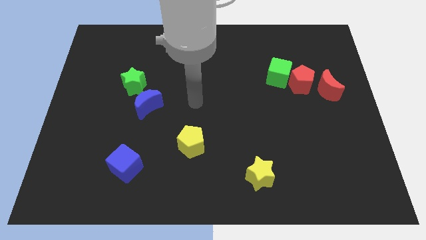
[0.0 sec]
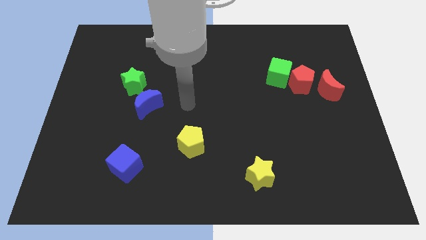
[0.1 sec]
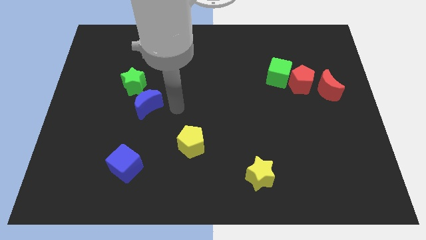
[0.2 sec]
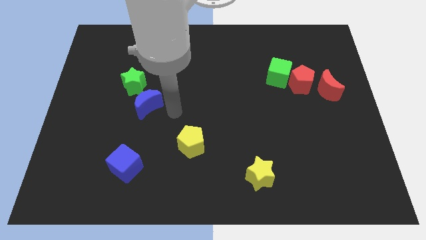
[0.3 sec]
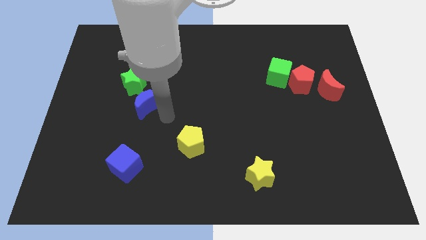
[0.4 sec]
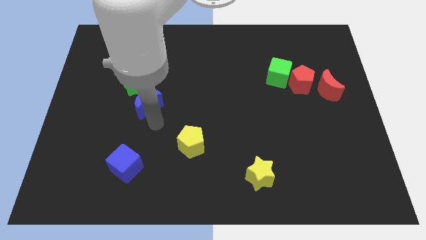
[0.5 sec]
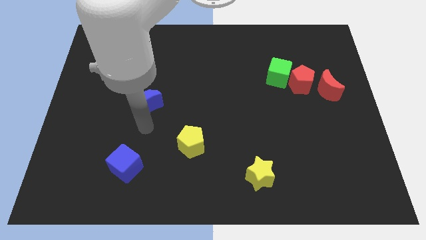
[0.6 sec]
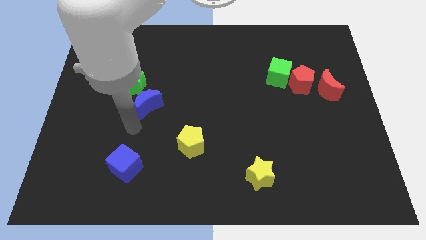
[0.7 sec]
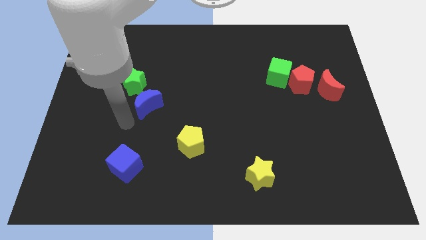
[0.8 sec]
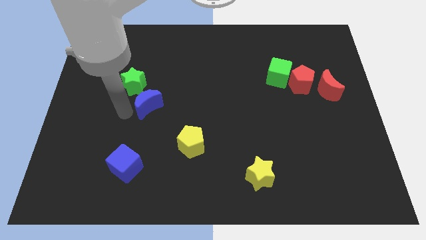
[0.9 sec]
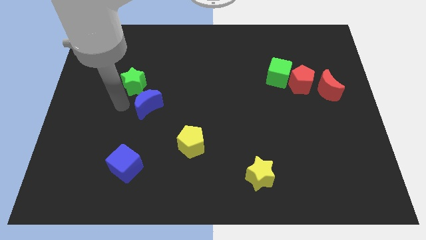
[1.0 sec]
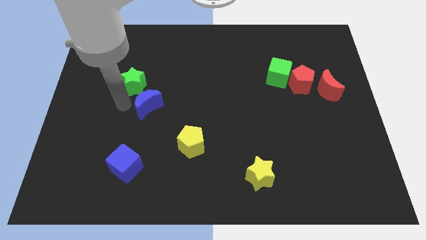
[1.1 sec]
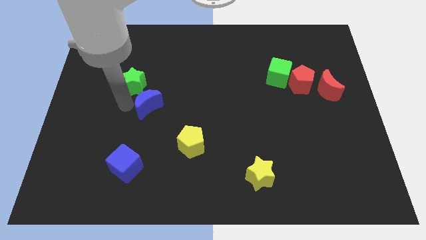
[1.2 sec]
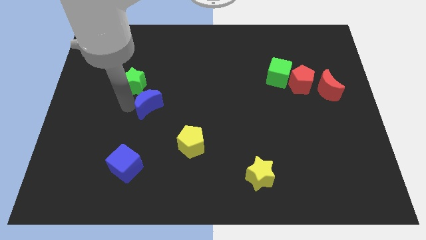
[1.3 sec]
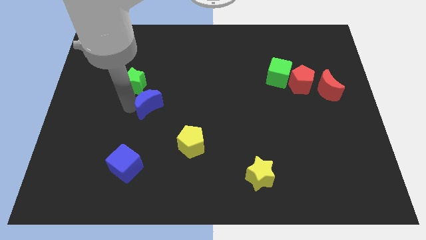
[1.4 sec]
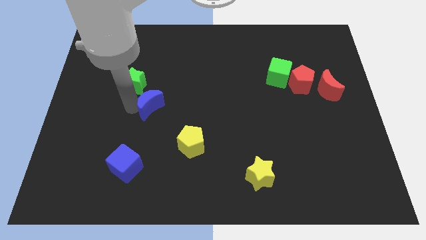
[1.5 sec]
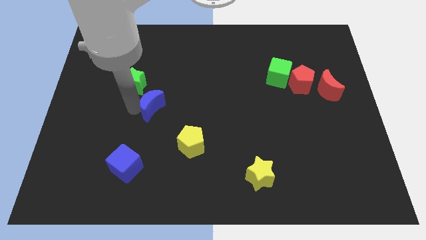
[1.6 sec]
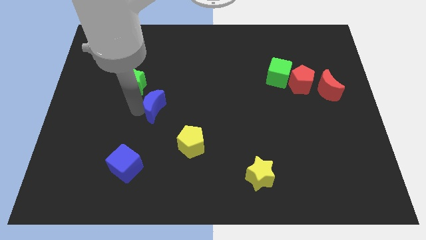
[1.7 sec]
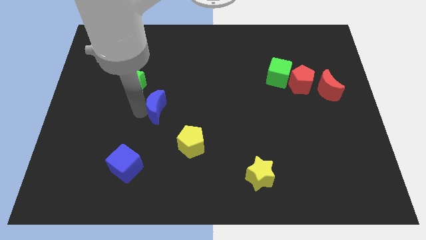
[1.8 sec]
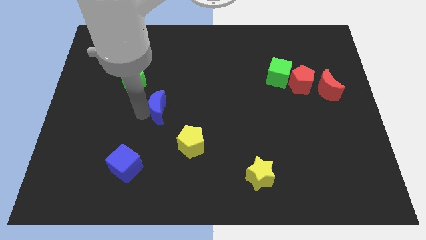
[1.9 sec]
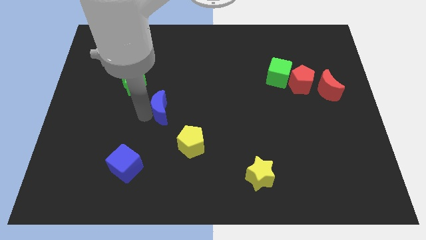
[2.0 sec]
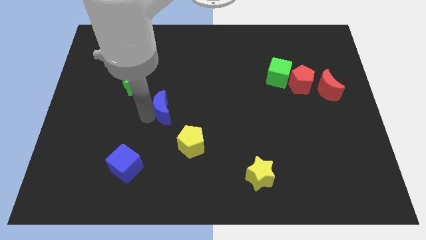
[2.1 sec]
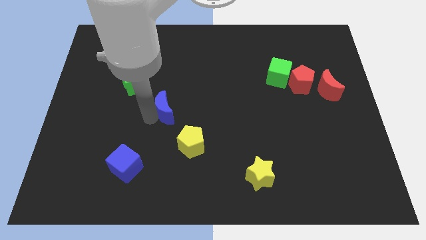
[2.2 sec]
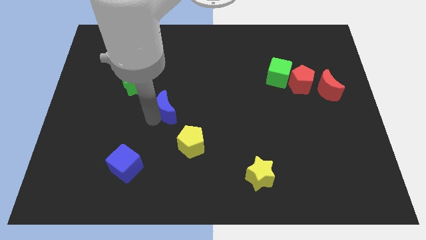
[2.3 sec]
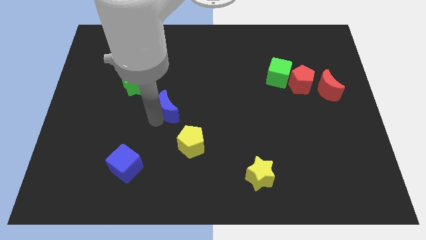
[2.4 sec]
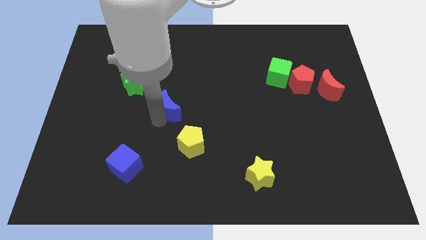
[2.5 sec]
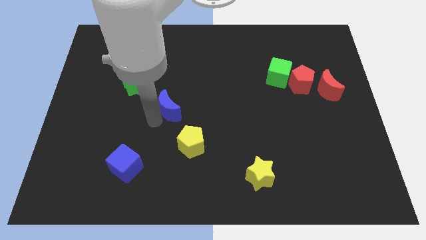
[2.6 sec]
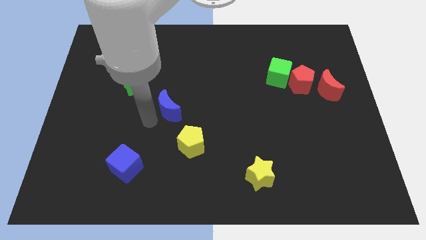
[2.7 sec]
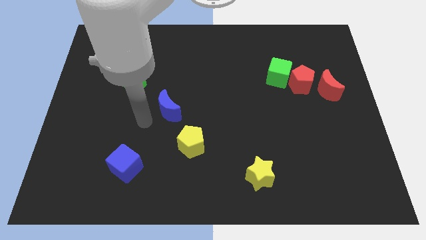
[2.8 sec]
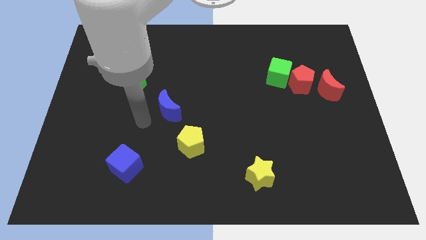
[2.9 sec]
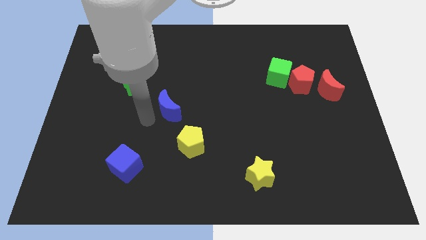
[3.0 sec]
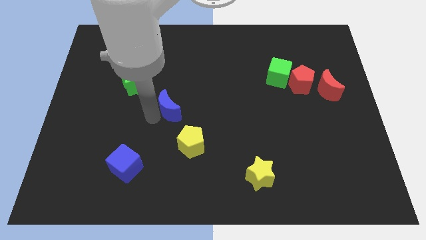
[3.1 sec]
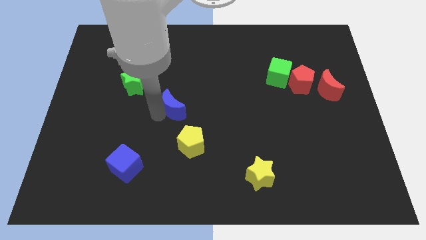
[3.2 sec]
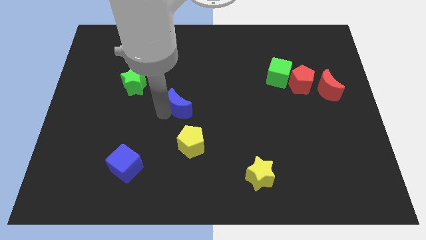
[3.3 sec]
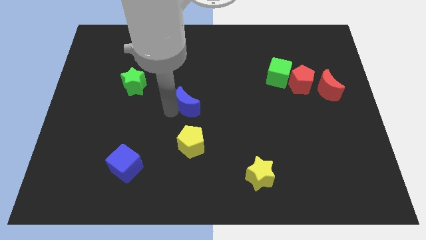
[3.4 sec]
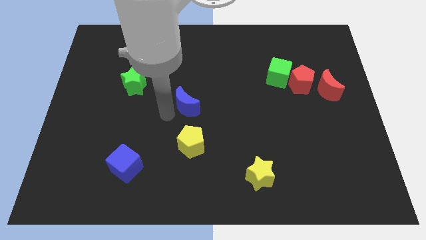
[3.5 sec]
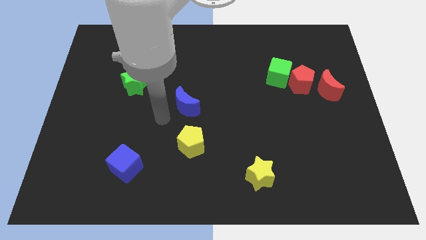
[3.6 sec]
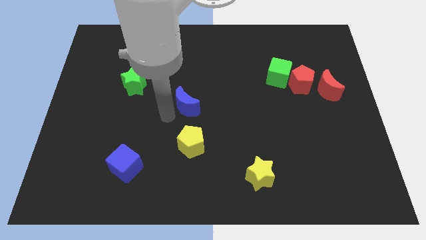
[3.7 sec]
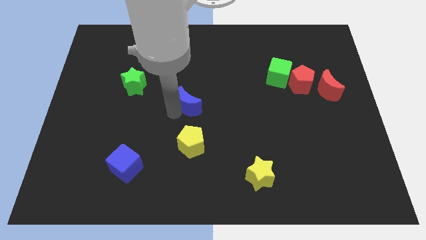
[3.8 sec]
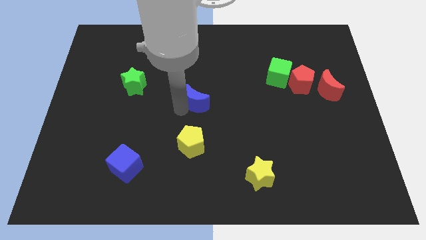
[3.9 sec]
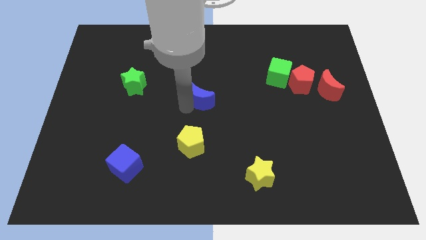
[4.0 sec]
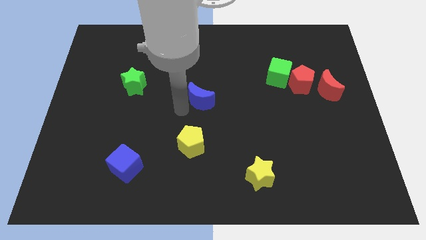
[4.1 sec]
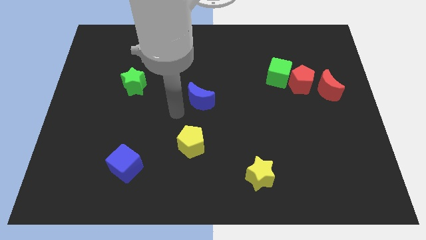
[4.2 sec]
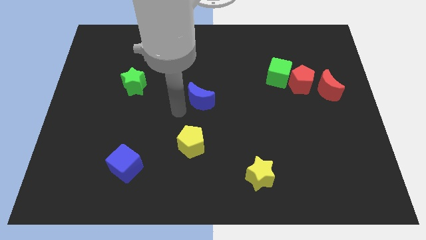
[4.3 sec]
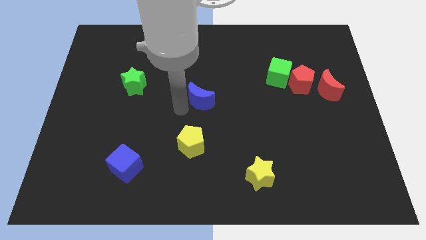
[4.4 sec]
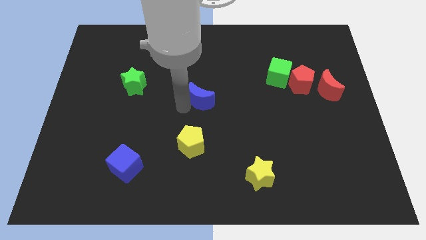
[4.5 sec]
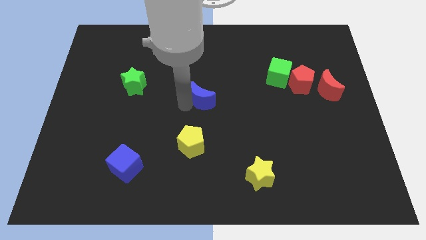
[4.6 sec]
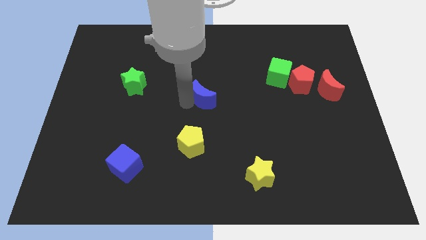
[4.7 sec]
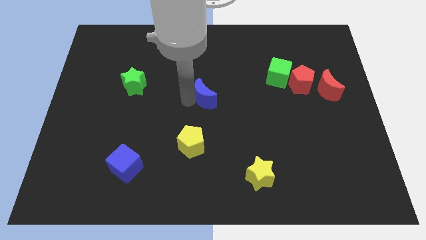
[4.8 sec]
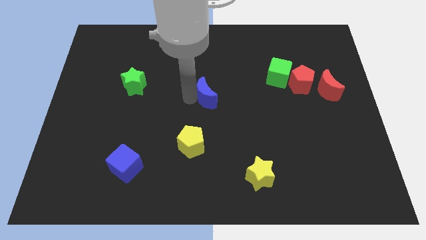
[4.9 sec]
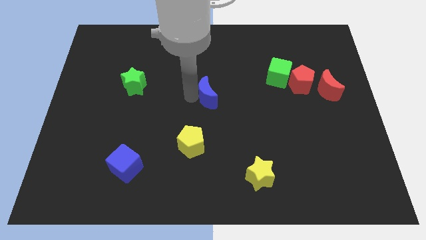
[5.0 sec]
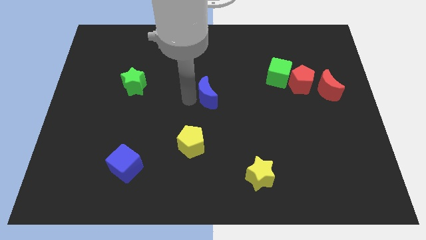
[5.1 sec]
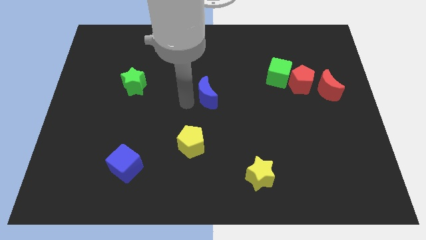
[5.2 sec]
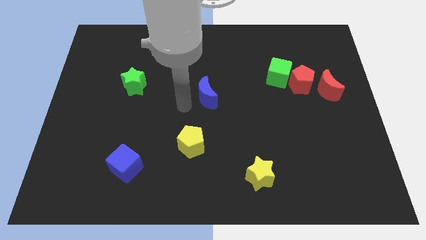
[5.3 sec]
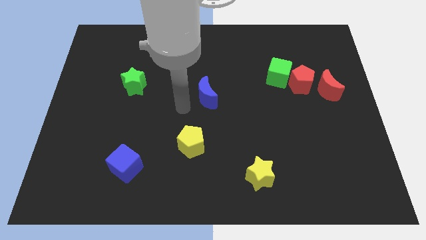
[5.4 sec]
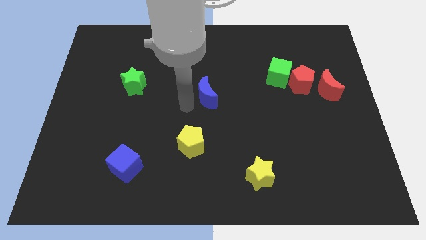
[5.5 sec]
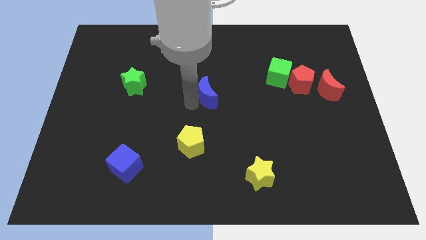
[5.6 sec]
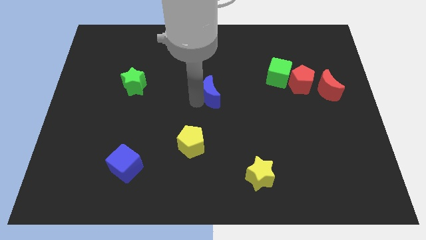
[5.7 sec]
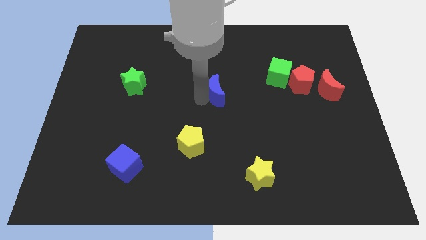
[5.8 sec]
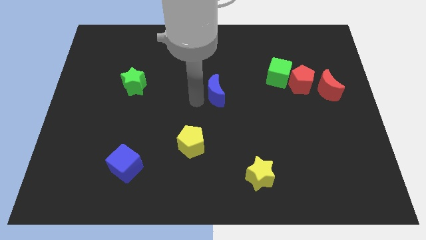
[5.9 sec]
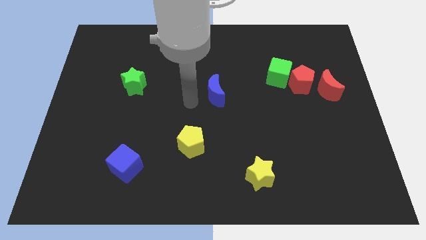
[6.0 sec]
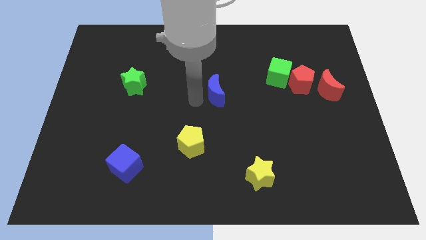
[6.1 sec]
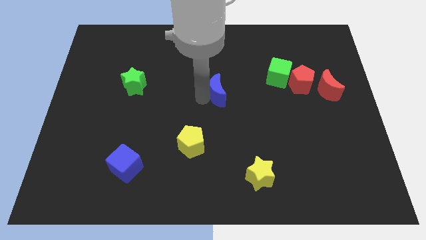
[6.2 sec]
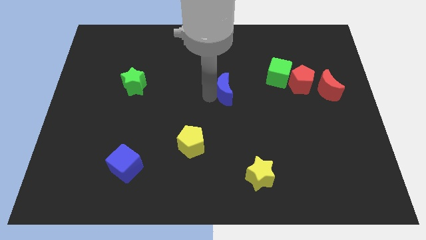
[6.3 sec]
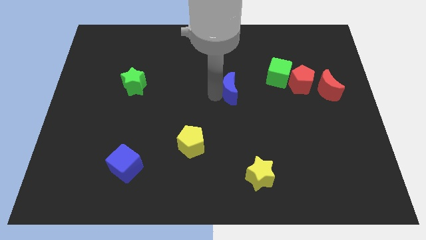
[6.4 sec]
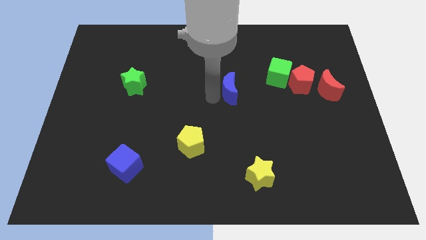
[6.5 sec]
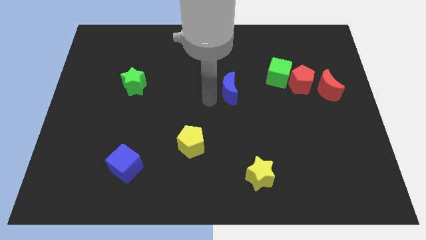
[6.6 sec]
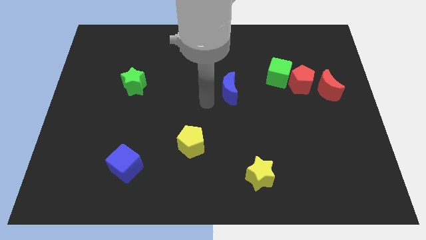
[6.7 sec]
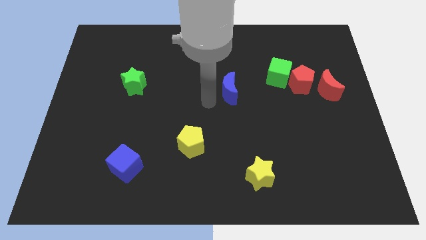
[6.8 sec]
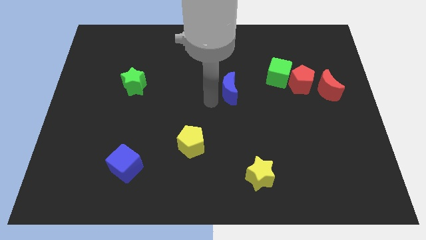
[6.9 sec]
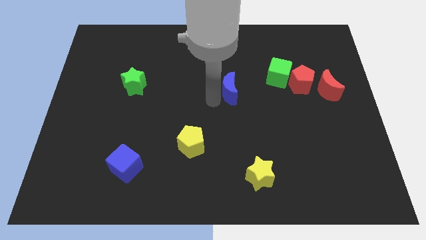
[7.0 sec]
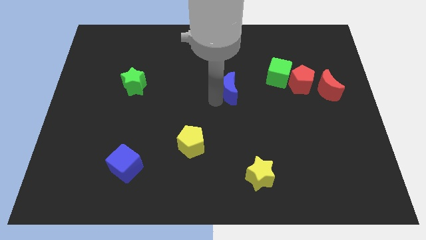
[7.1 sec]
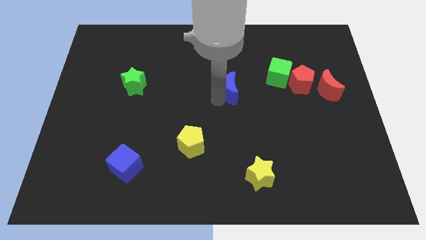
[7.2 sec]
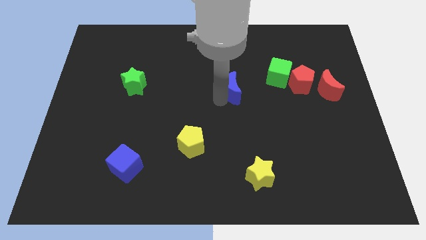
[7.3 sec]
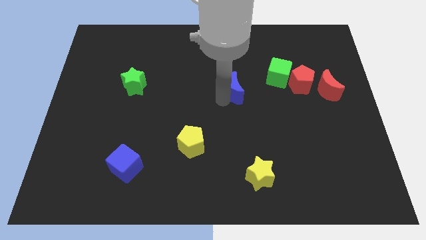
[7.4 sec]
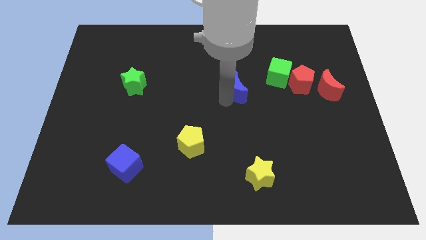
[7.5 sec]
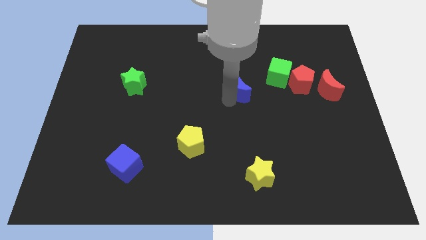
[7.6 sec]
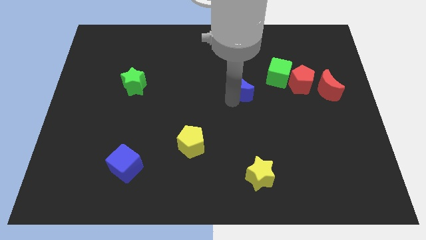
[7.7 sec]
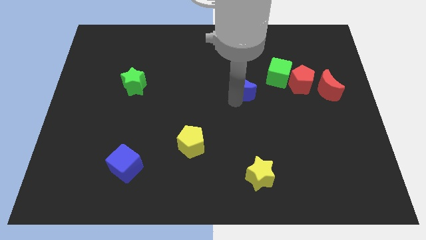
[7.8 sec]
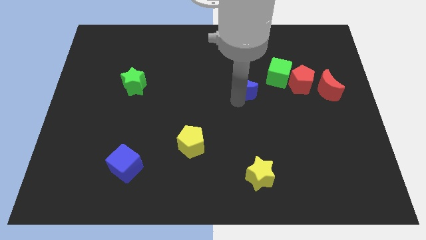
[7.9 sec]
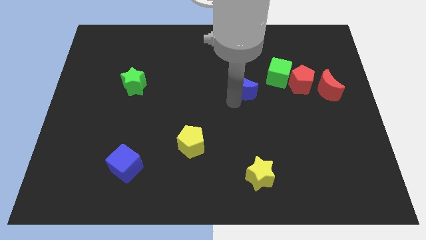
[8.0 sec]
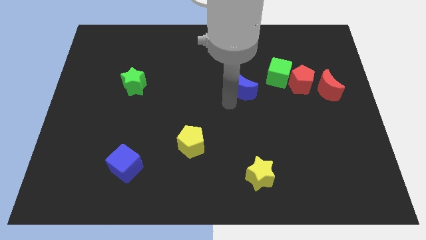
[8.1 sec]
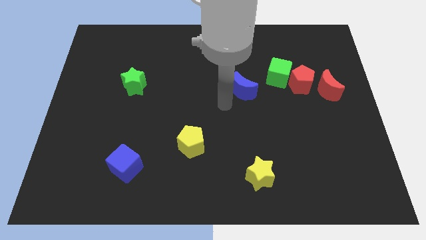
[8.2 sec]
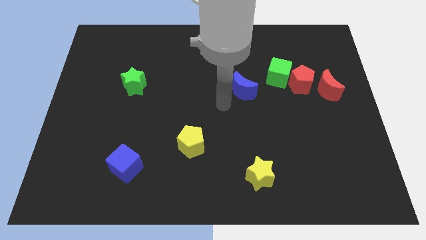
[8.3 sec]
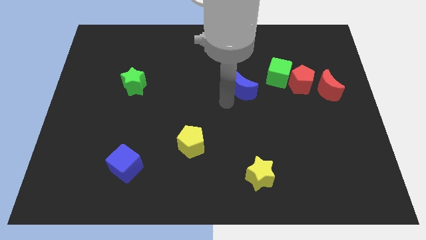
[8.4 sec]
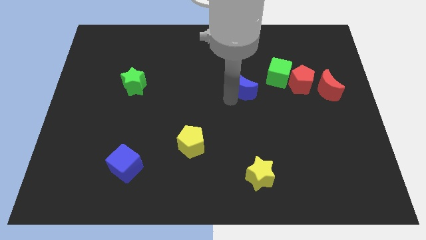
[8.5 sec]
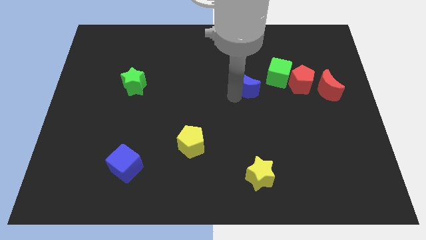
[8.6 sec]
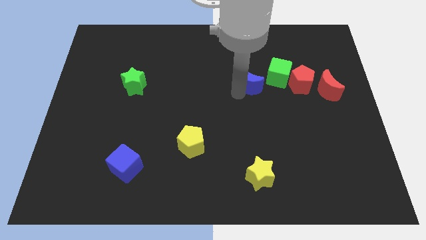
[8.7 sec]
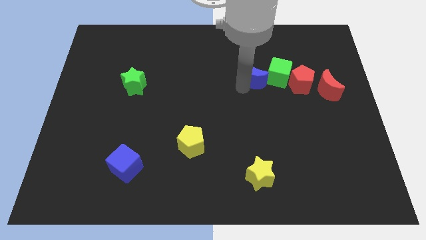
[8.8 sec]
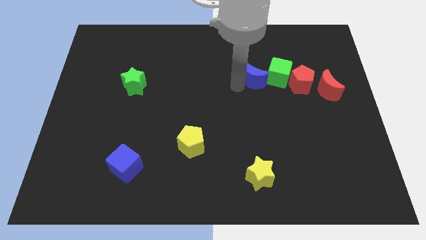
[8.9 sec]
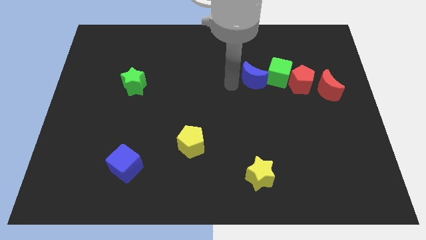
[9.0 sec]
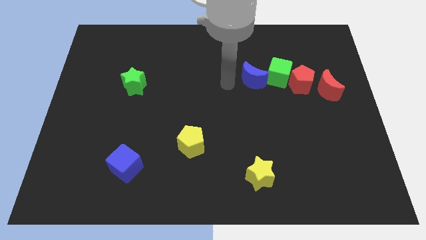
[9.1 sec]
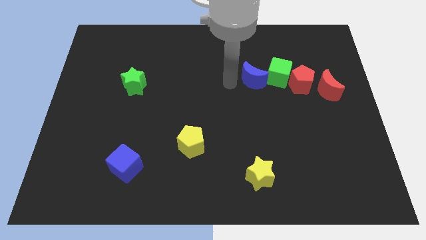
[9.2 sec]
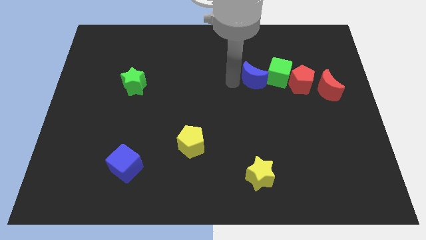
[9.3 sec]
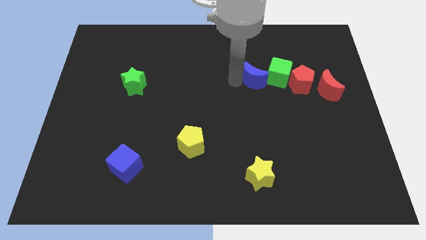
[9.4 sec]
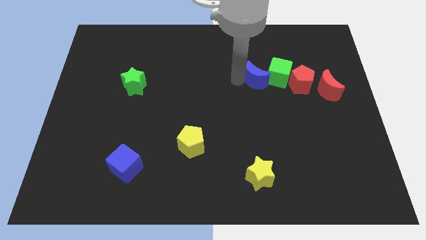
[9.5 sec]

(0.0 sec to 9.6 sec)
slide the blue moon towards the green cube
